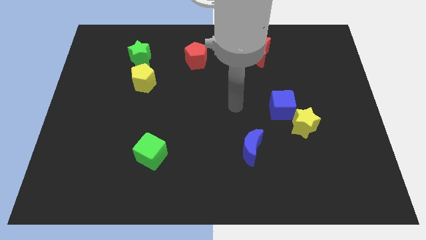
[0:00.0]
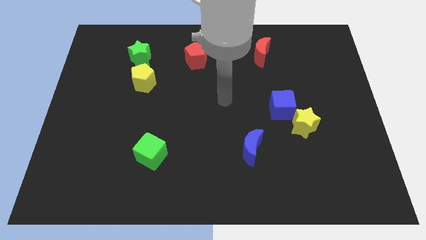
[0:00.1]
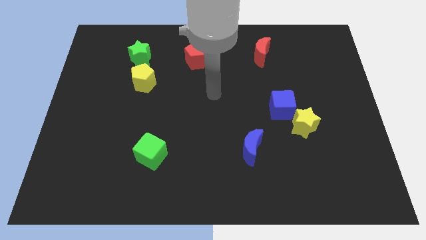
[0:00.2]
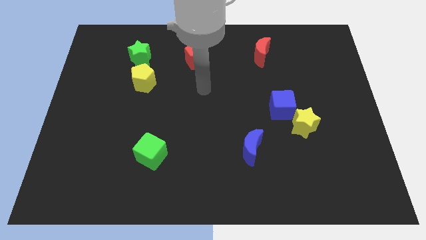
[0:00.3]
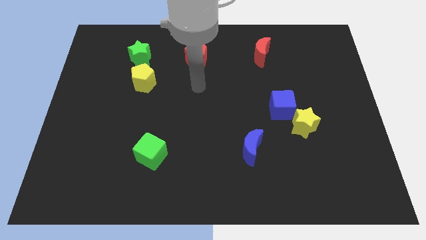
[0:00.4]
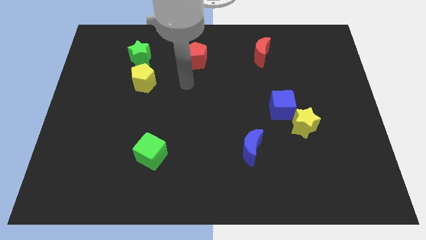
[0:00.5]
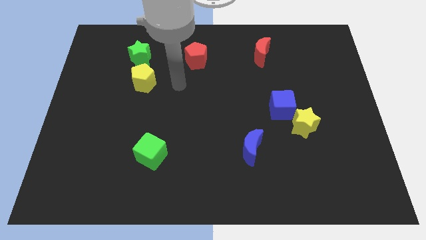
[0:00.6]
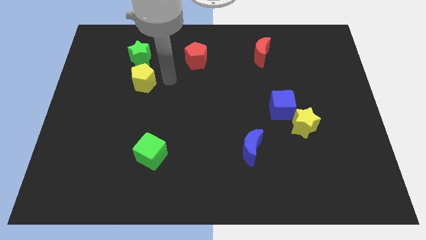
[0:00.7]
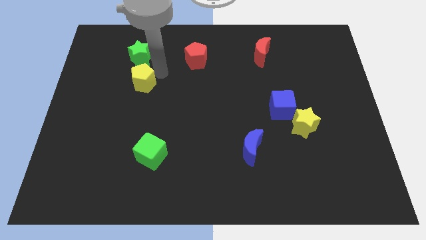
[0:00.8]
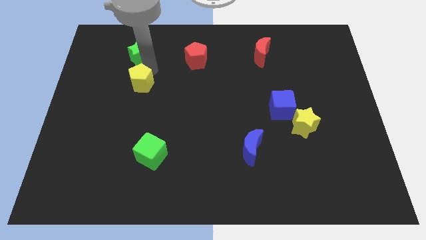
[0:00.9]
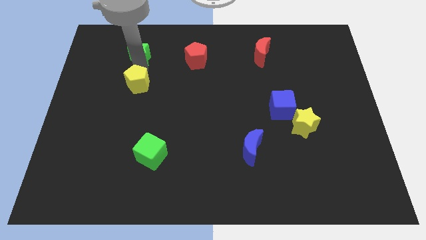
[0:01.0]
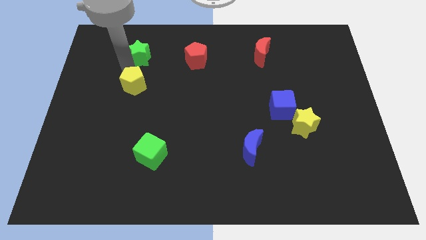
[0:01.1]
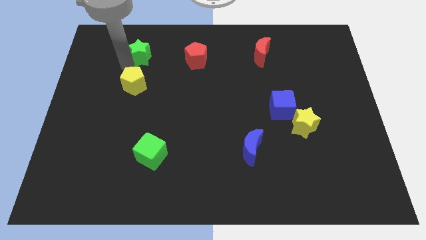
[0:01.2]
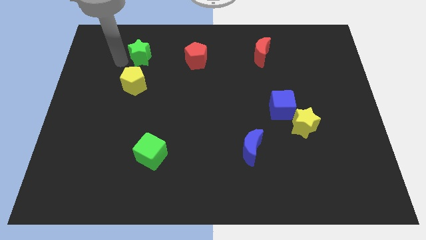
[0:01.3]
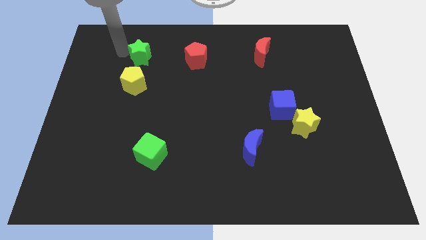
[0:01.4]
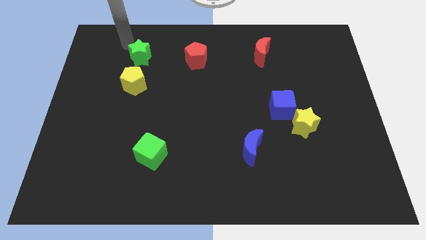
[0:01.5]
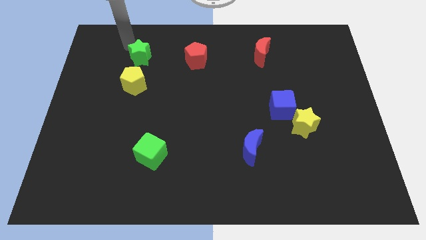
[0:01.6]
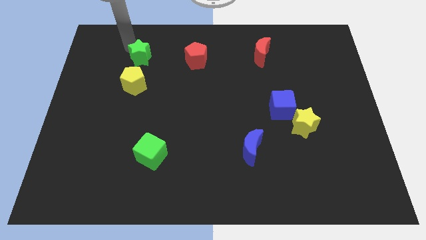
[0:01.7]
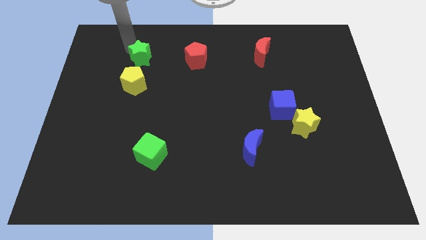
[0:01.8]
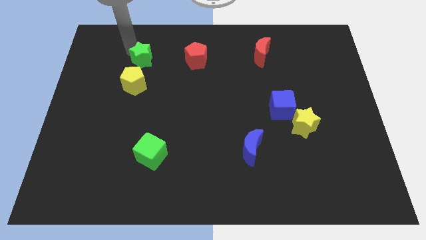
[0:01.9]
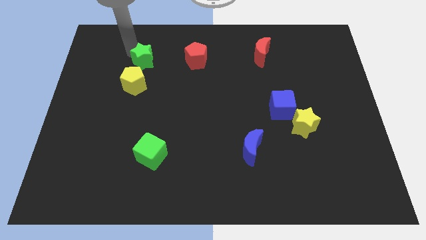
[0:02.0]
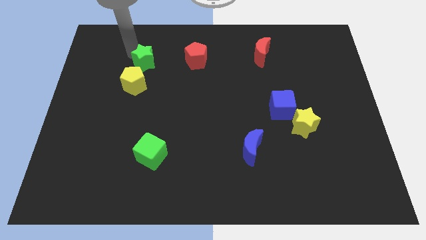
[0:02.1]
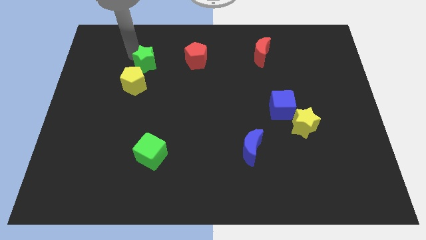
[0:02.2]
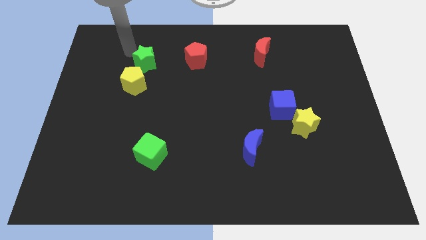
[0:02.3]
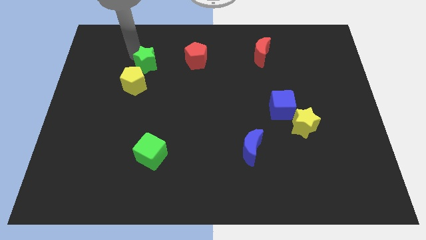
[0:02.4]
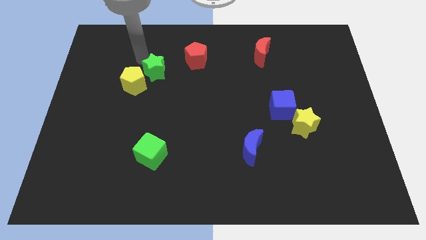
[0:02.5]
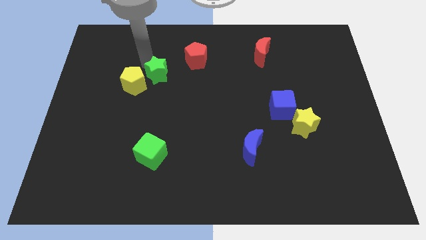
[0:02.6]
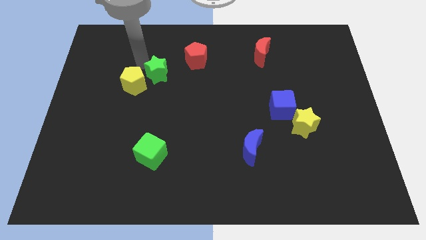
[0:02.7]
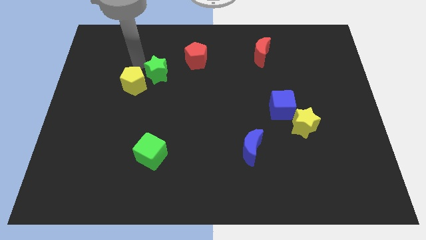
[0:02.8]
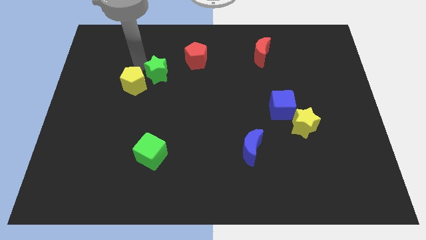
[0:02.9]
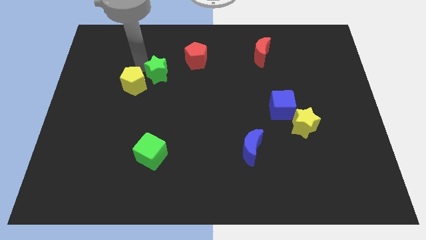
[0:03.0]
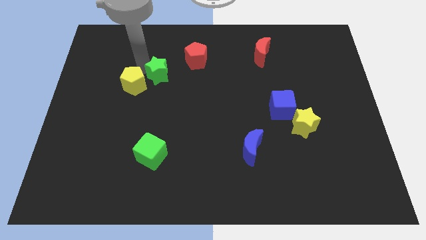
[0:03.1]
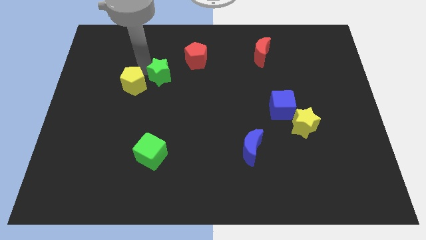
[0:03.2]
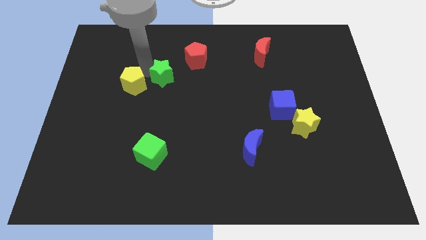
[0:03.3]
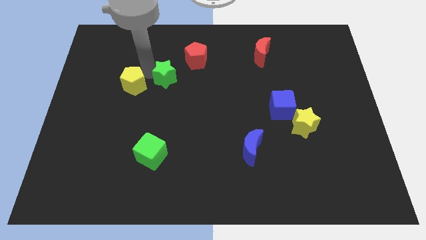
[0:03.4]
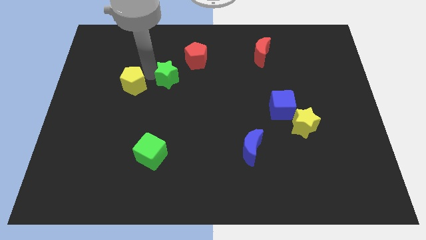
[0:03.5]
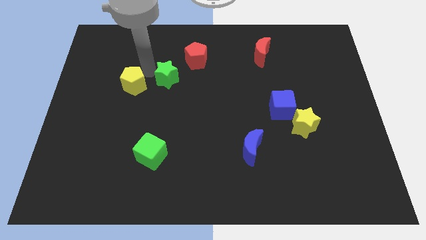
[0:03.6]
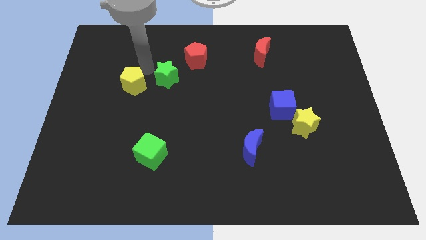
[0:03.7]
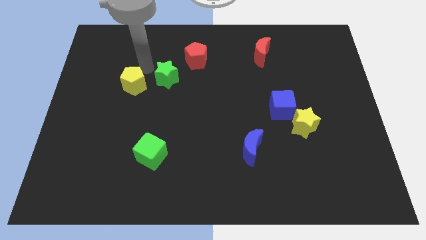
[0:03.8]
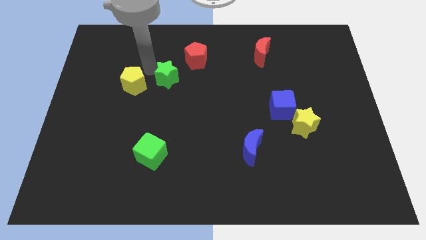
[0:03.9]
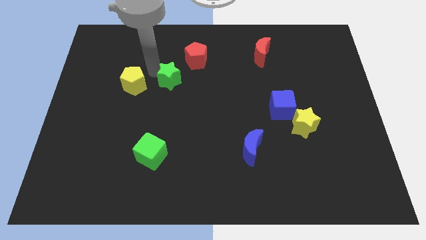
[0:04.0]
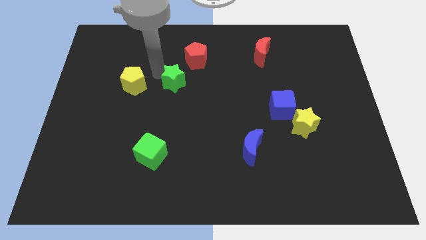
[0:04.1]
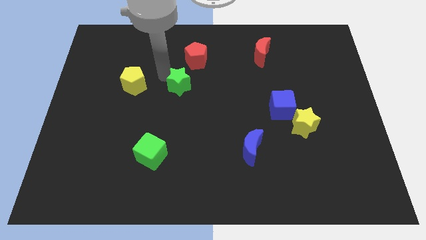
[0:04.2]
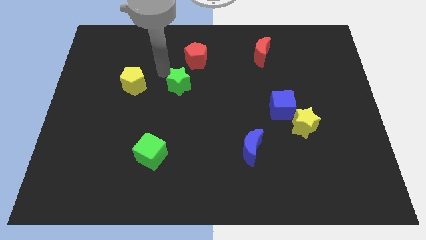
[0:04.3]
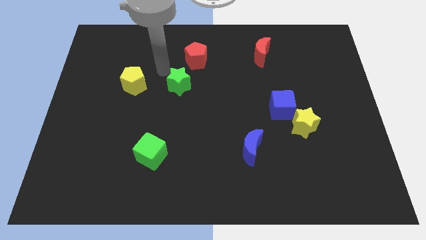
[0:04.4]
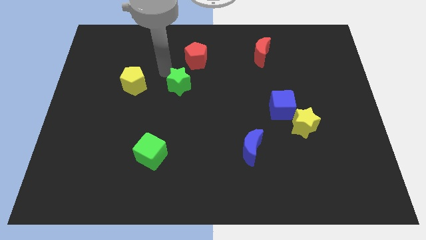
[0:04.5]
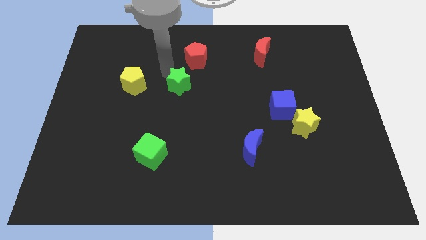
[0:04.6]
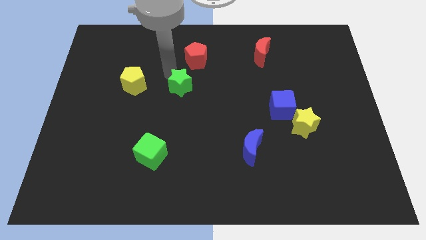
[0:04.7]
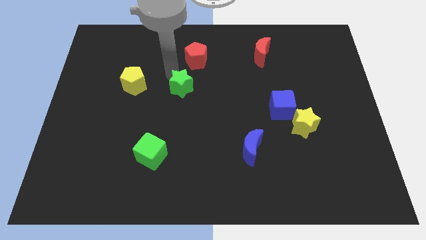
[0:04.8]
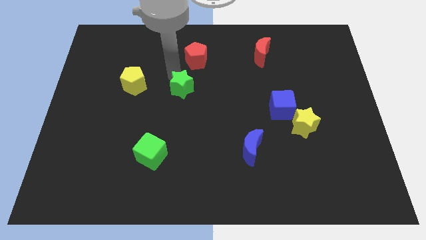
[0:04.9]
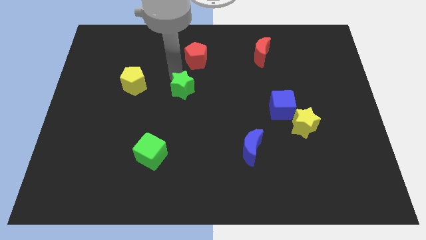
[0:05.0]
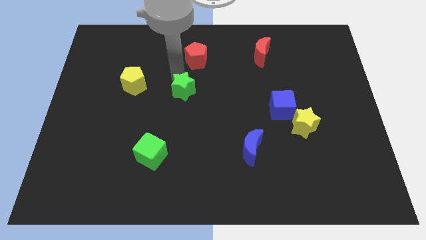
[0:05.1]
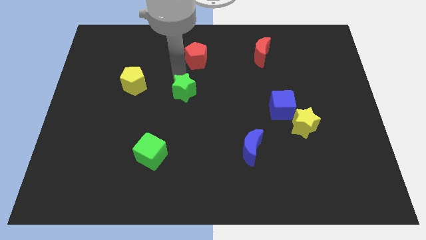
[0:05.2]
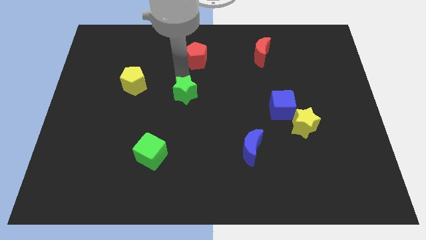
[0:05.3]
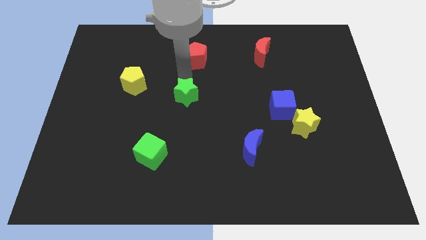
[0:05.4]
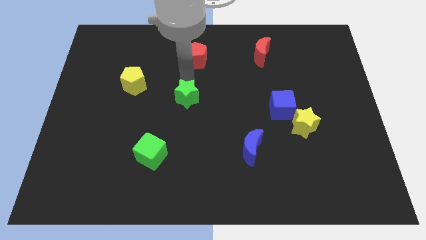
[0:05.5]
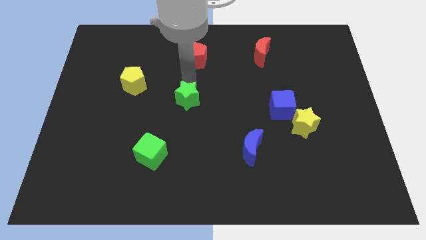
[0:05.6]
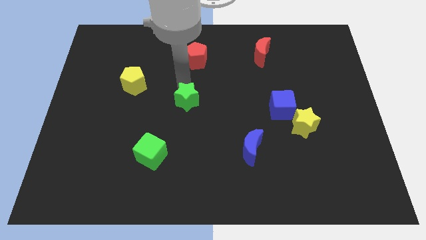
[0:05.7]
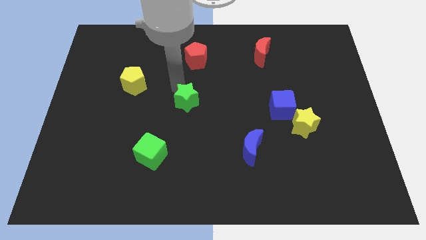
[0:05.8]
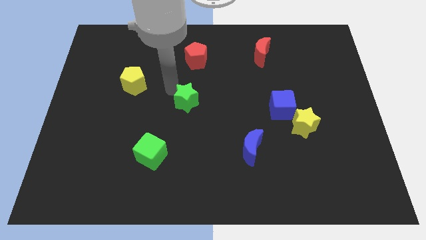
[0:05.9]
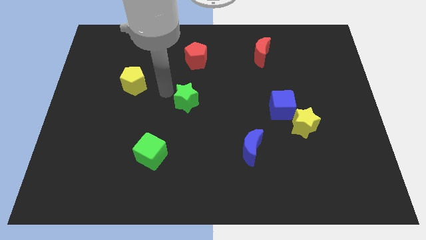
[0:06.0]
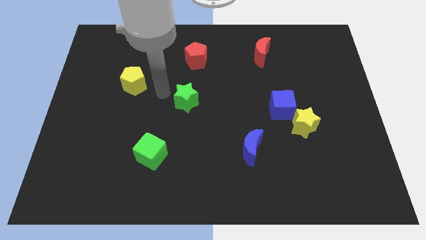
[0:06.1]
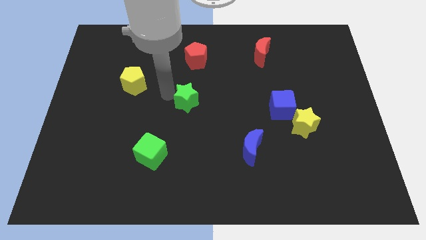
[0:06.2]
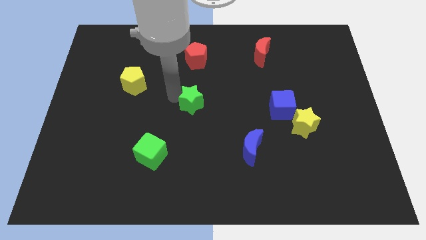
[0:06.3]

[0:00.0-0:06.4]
slide the green star down and right diagonally

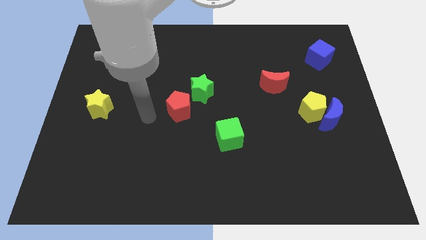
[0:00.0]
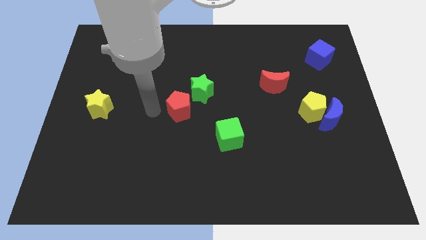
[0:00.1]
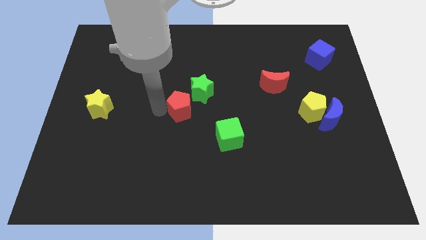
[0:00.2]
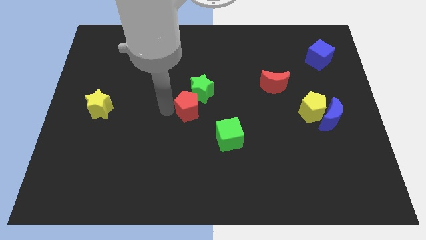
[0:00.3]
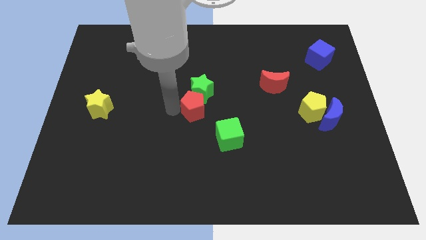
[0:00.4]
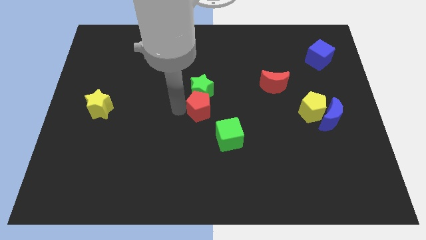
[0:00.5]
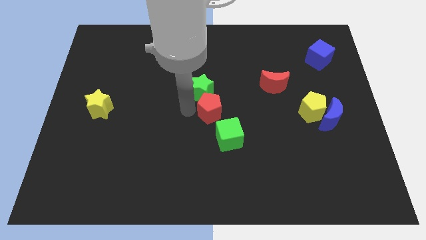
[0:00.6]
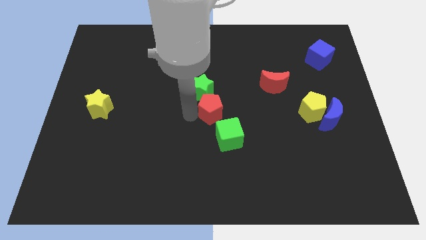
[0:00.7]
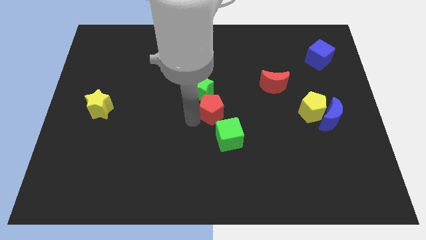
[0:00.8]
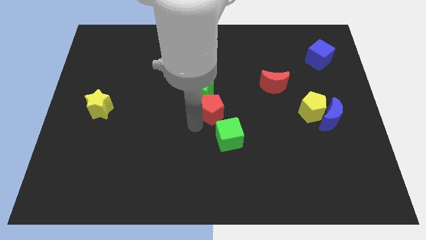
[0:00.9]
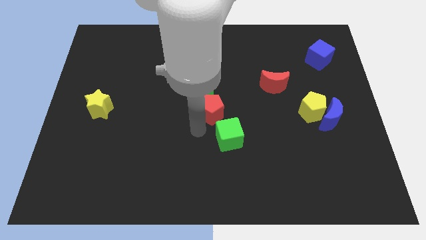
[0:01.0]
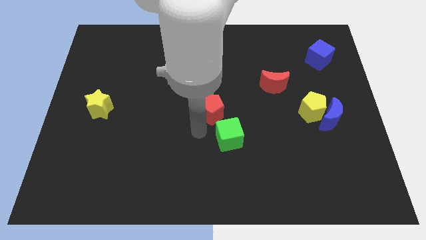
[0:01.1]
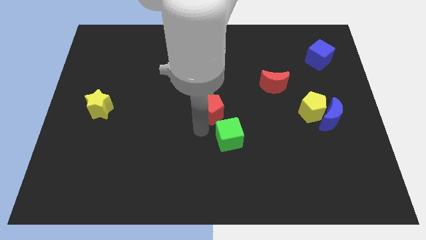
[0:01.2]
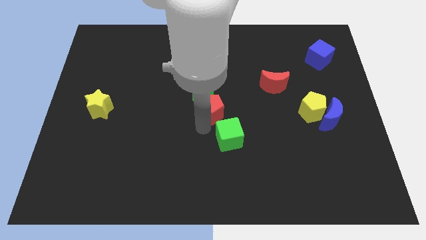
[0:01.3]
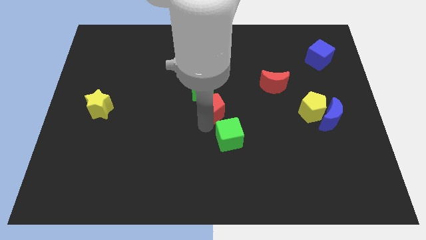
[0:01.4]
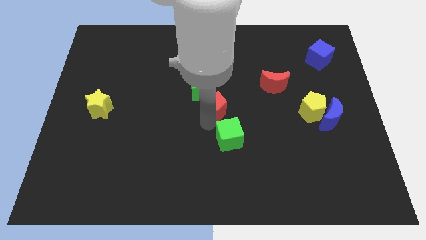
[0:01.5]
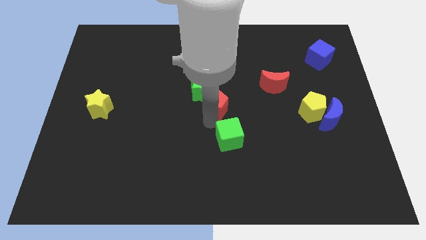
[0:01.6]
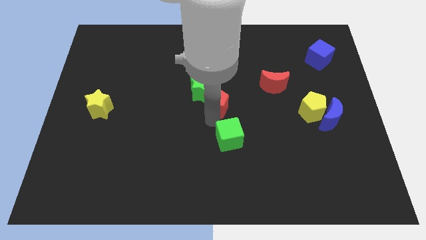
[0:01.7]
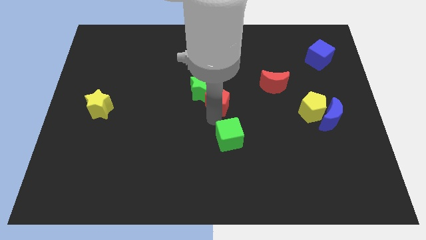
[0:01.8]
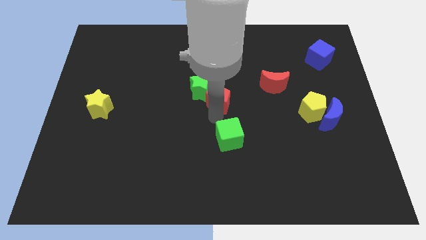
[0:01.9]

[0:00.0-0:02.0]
slide the red pentagon slightly upwards and right
